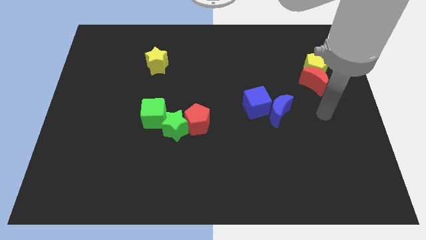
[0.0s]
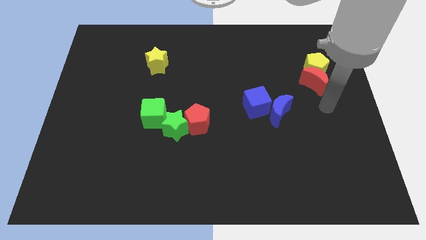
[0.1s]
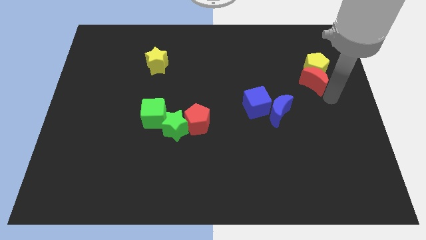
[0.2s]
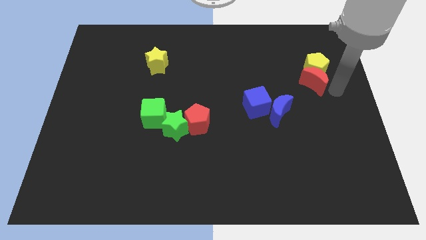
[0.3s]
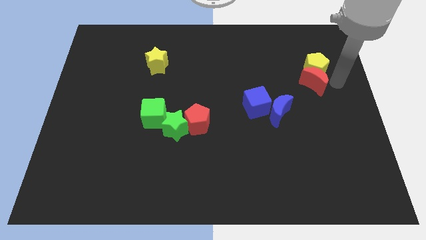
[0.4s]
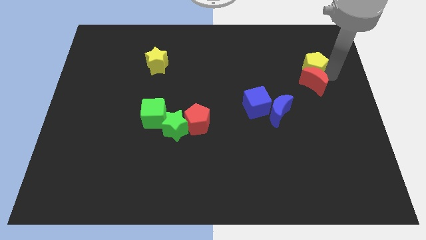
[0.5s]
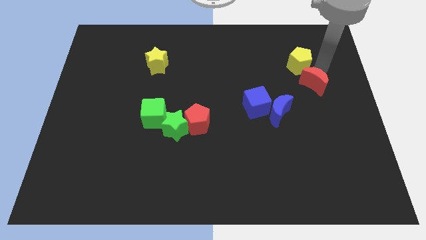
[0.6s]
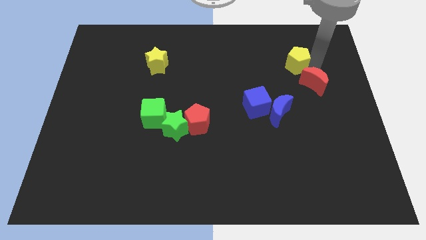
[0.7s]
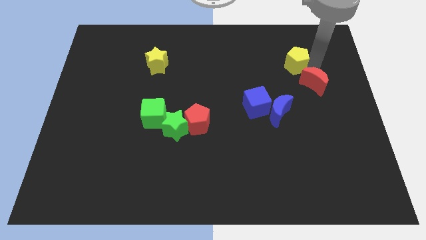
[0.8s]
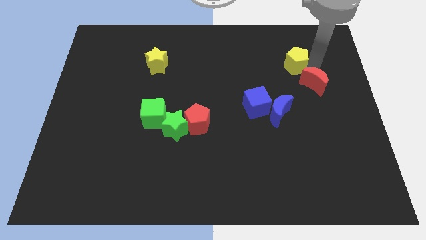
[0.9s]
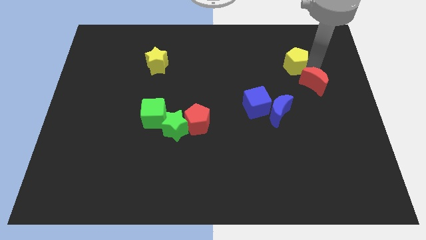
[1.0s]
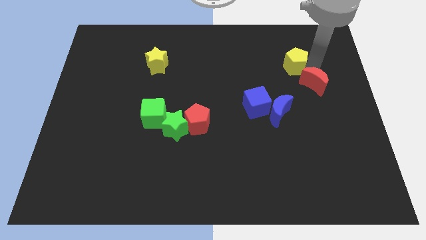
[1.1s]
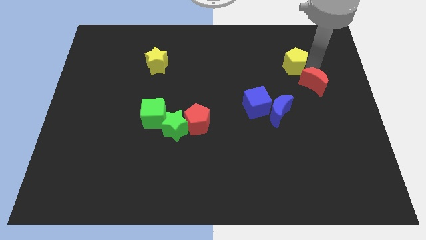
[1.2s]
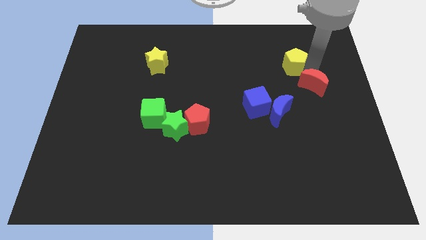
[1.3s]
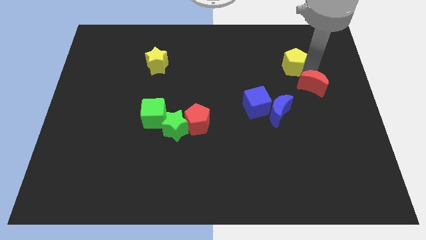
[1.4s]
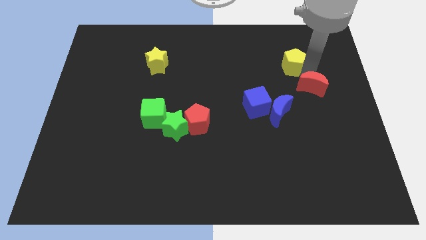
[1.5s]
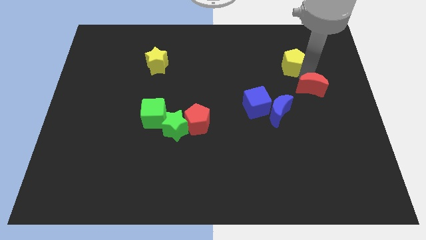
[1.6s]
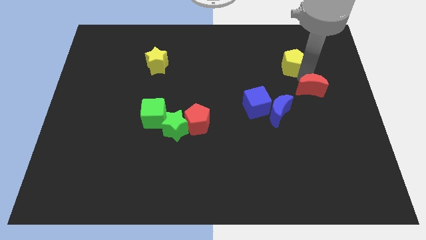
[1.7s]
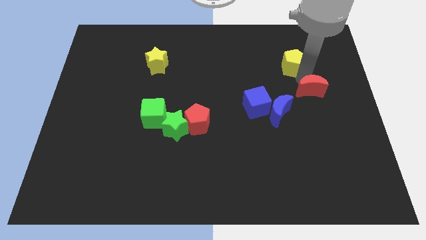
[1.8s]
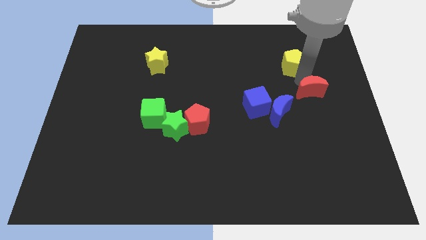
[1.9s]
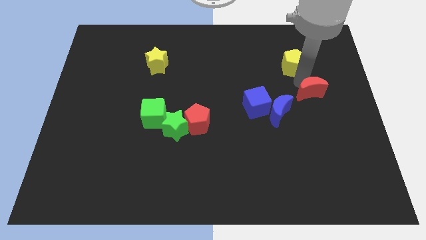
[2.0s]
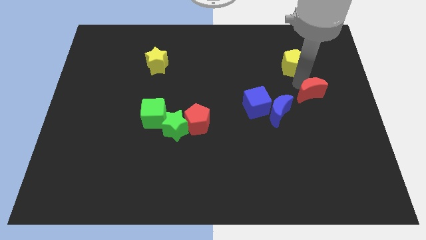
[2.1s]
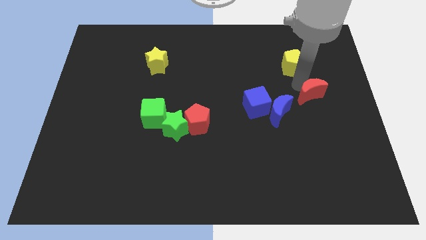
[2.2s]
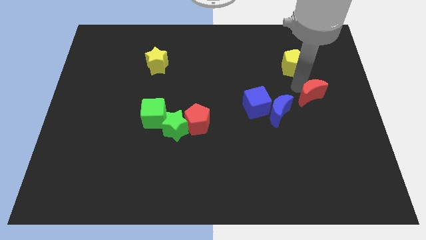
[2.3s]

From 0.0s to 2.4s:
move the red moon away from the yellow pentagon

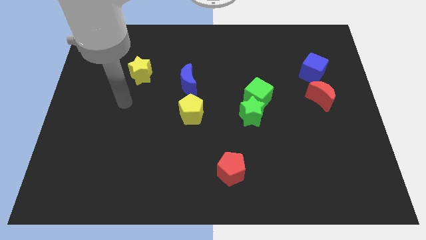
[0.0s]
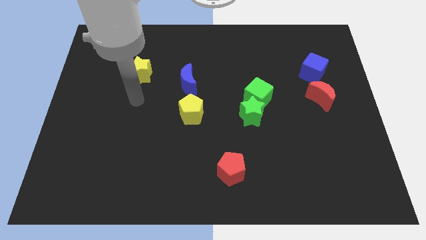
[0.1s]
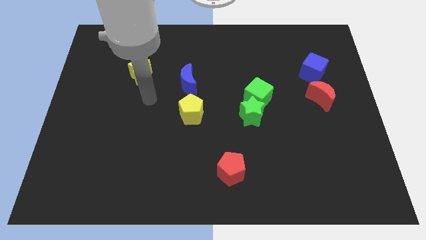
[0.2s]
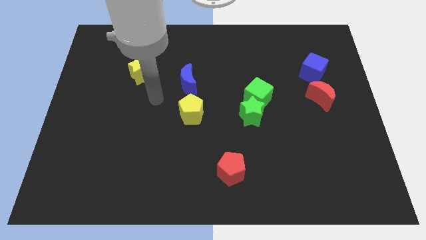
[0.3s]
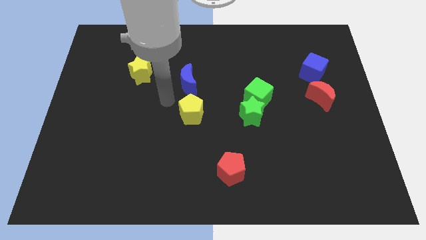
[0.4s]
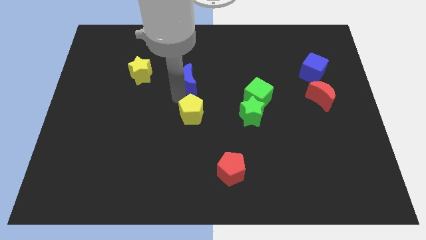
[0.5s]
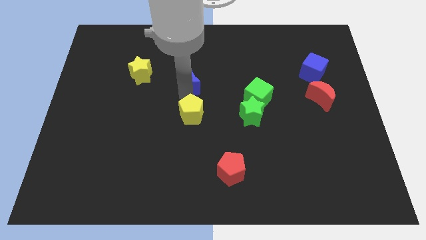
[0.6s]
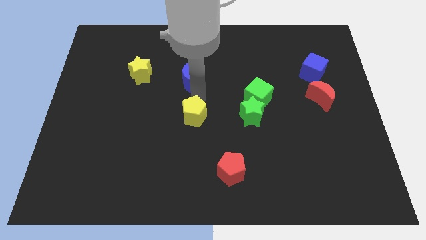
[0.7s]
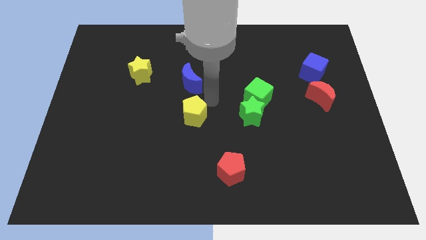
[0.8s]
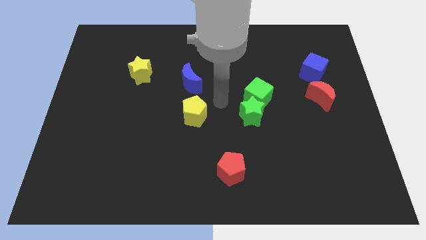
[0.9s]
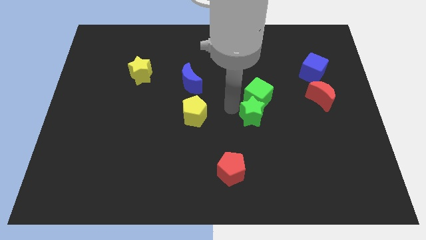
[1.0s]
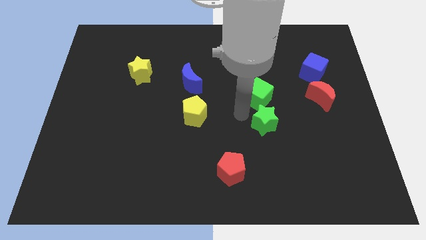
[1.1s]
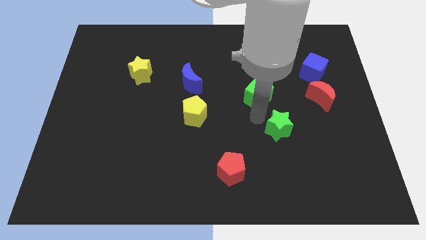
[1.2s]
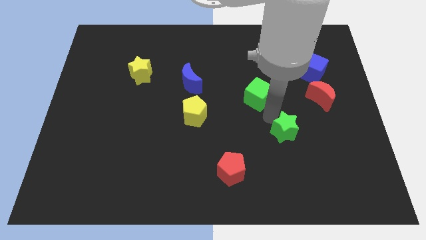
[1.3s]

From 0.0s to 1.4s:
pull the green cube apart from the green star

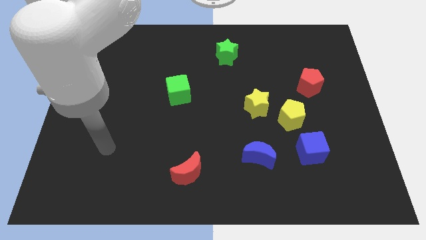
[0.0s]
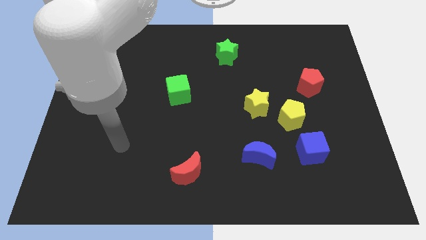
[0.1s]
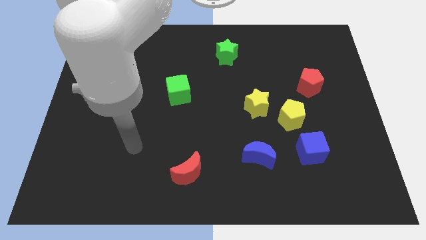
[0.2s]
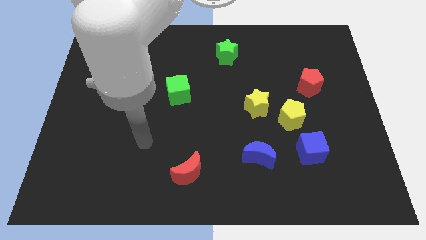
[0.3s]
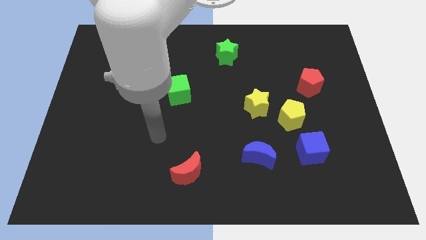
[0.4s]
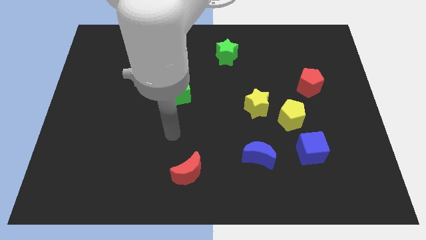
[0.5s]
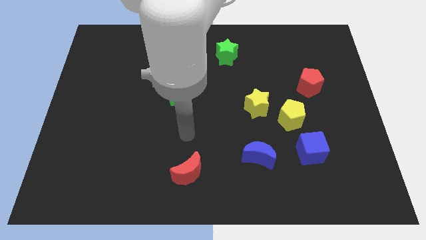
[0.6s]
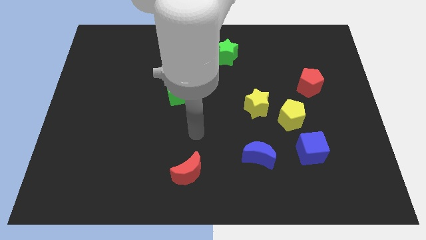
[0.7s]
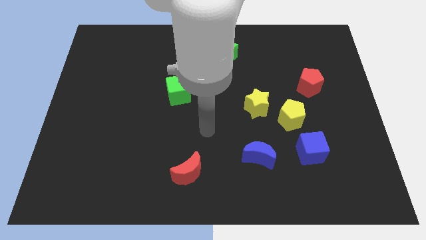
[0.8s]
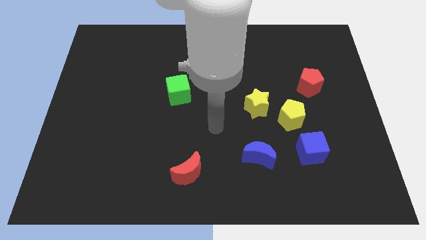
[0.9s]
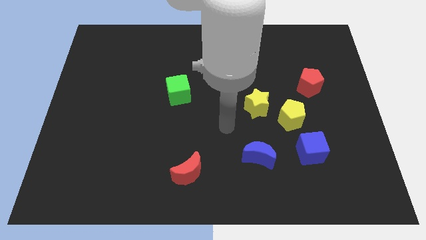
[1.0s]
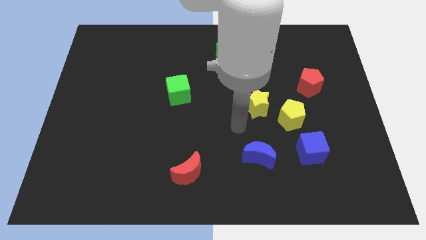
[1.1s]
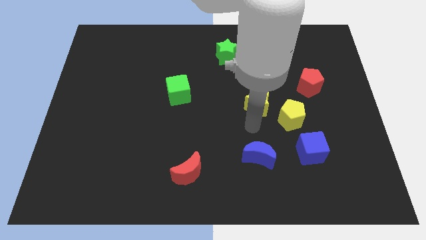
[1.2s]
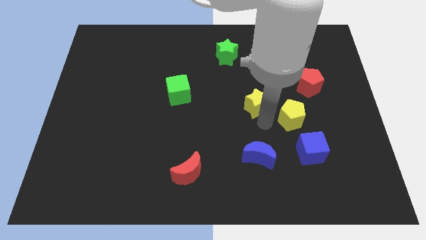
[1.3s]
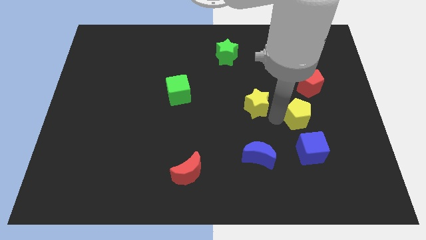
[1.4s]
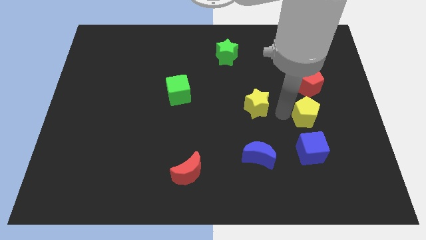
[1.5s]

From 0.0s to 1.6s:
separate the yellow star from the yellow pentagon

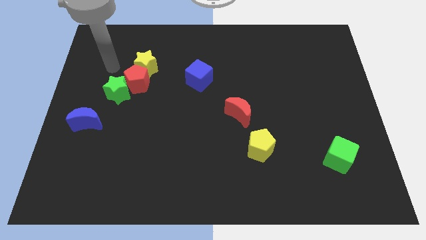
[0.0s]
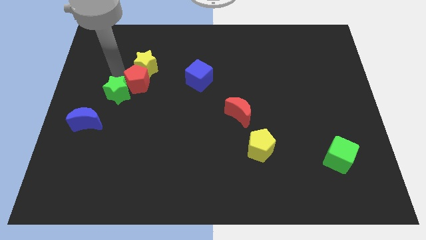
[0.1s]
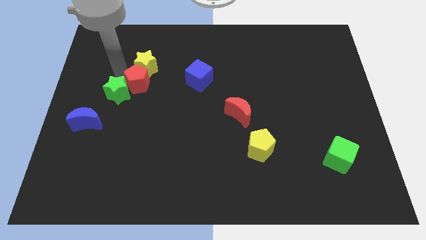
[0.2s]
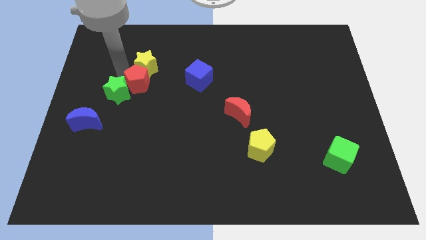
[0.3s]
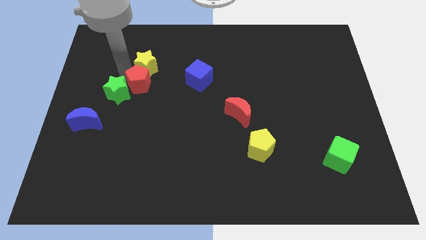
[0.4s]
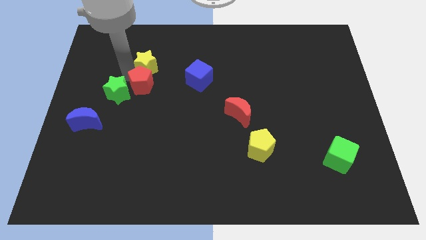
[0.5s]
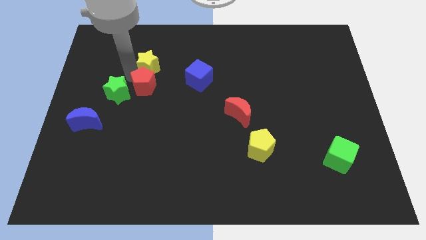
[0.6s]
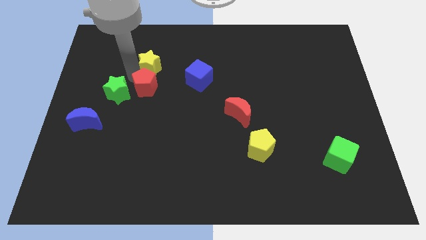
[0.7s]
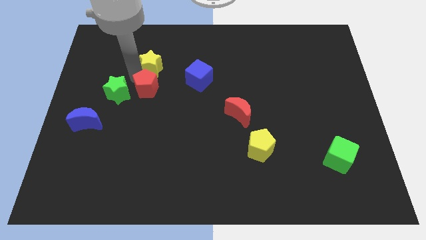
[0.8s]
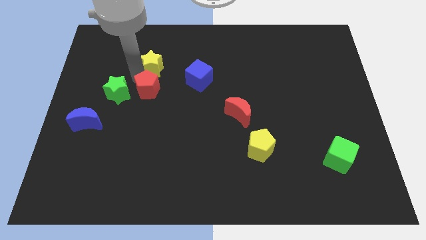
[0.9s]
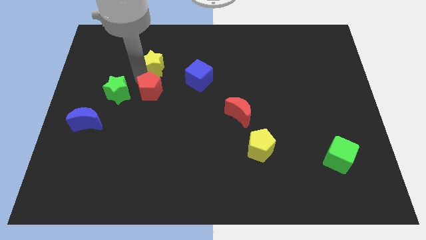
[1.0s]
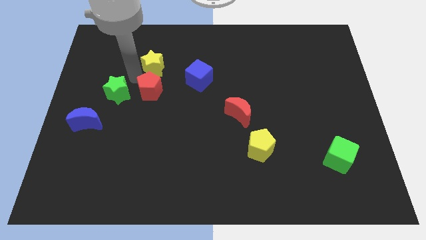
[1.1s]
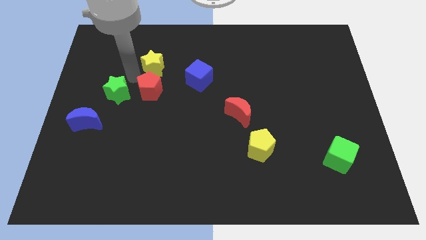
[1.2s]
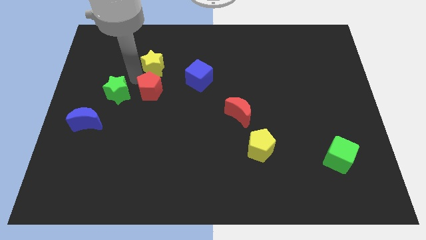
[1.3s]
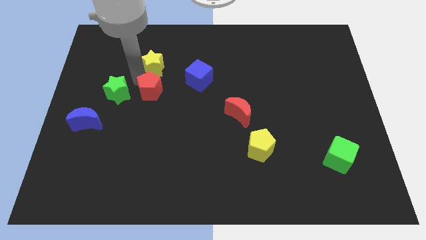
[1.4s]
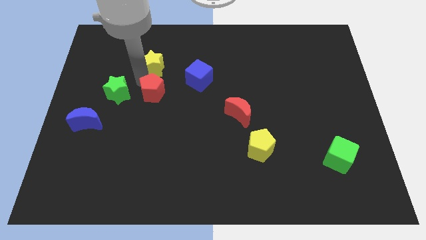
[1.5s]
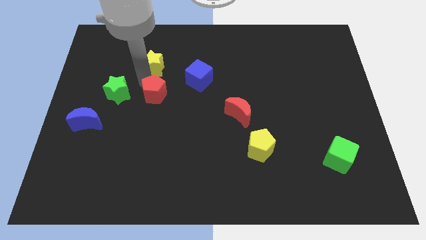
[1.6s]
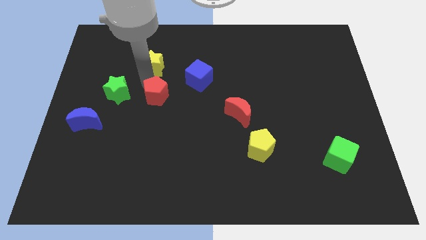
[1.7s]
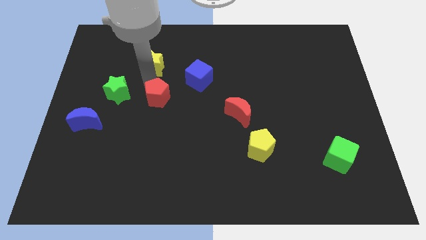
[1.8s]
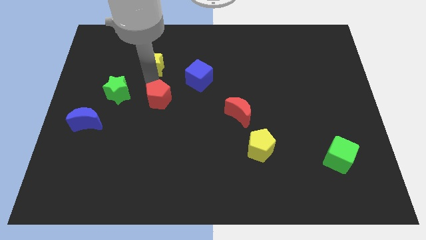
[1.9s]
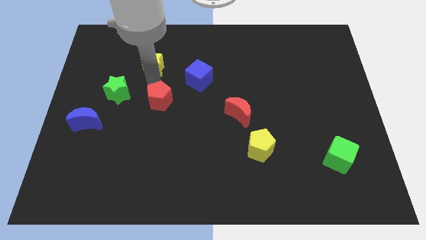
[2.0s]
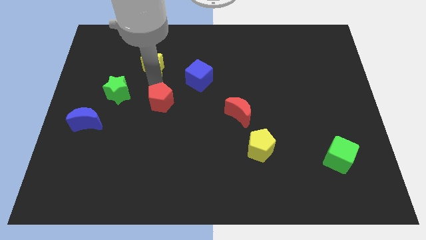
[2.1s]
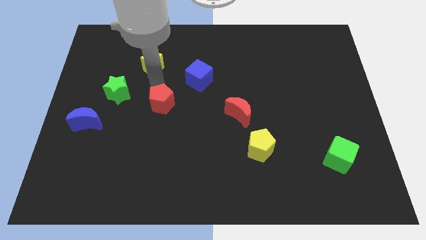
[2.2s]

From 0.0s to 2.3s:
move the red pentagon away from the green star and yellow star

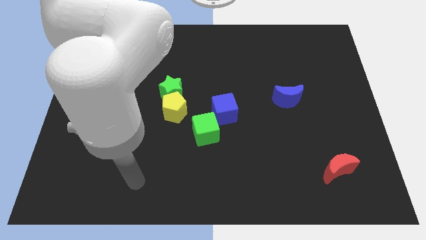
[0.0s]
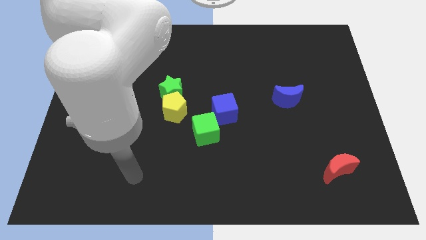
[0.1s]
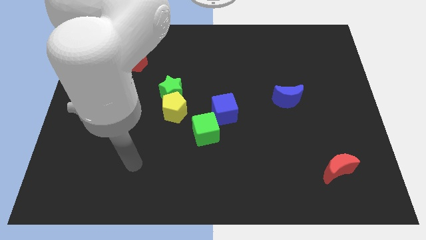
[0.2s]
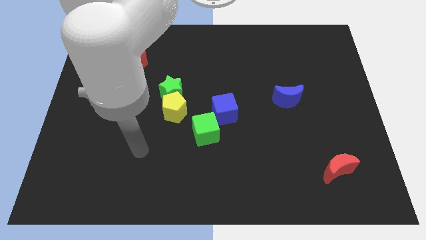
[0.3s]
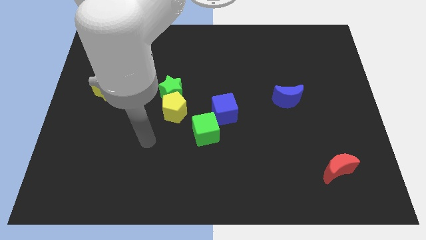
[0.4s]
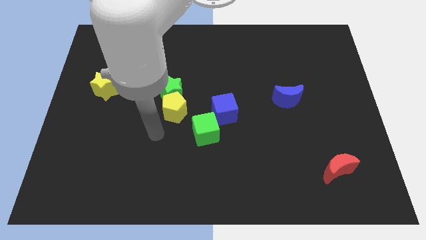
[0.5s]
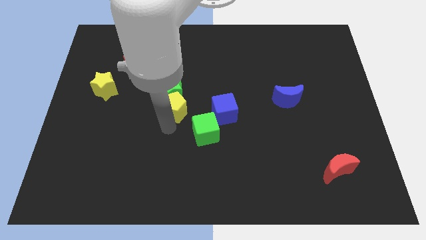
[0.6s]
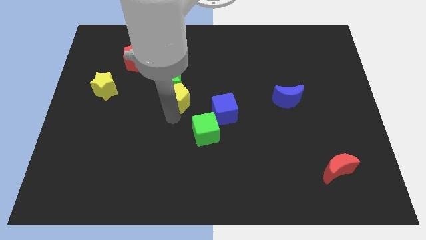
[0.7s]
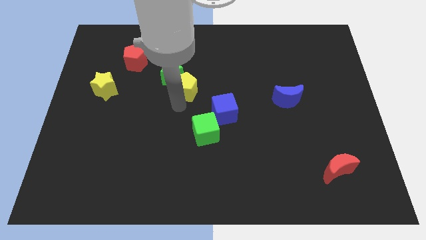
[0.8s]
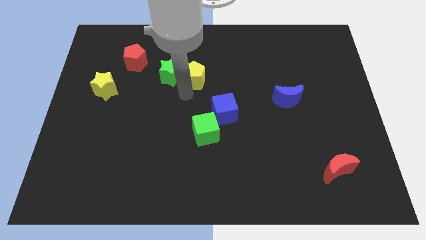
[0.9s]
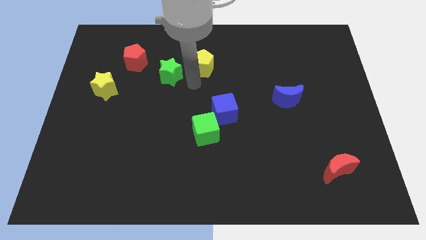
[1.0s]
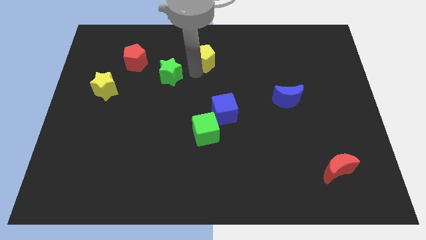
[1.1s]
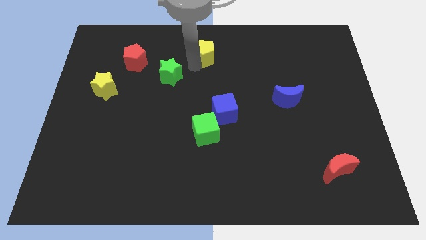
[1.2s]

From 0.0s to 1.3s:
pull the green star apart from the yellow pentagon

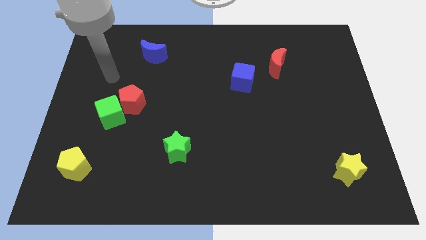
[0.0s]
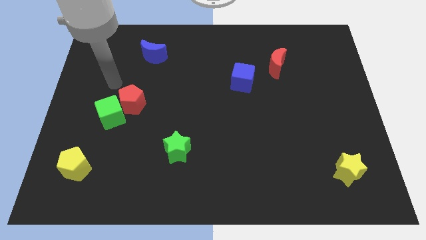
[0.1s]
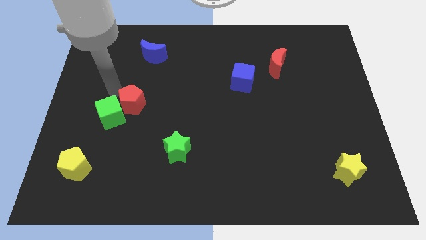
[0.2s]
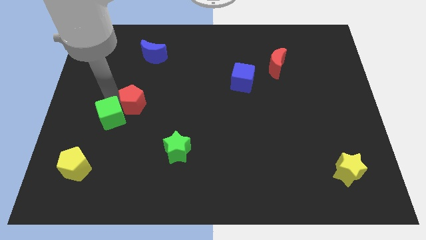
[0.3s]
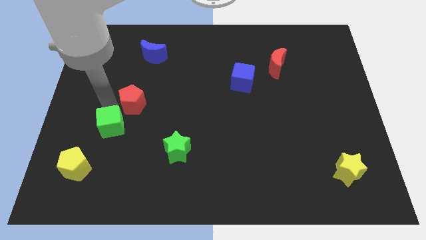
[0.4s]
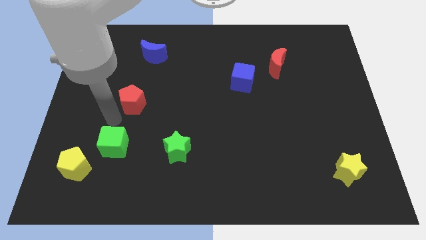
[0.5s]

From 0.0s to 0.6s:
separate the red pentagon from the green cube
